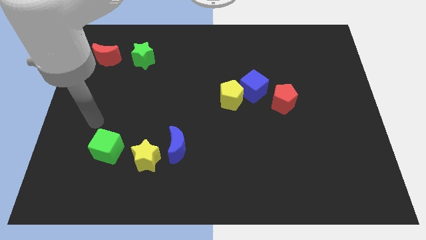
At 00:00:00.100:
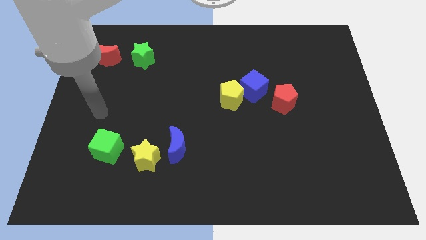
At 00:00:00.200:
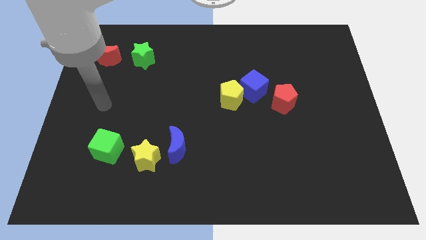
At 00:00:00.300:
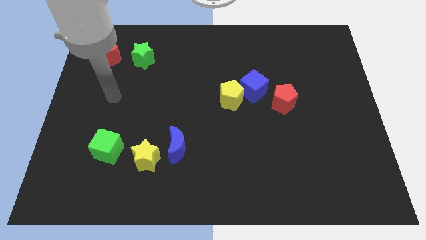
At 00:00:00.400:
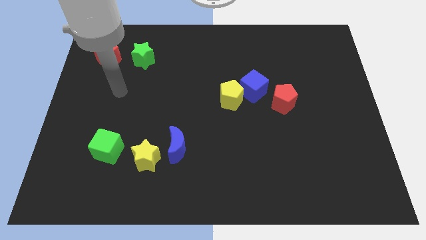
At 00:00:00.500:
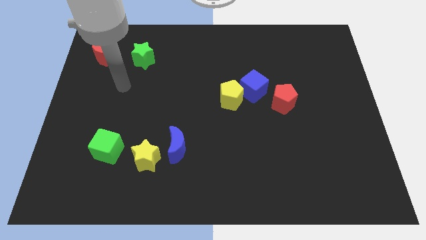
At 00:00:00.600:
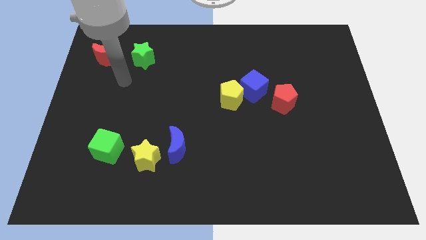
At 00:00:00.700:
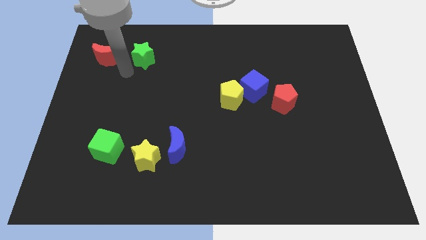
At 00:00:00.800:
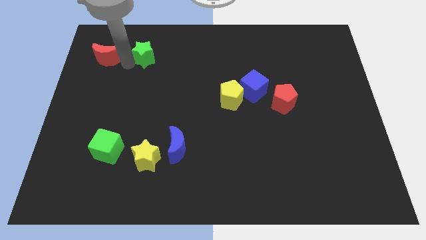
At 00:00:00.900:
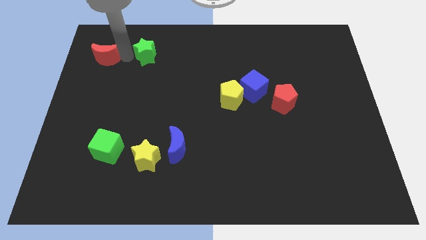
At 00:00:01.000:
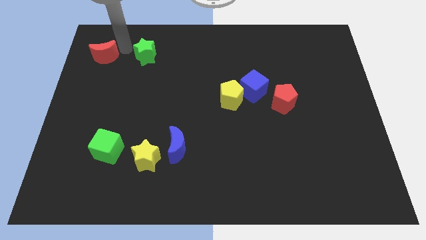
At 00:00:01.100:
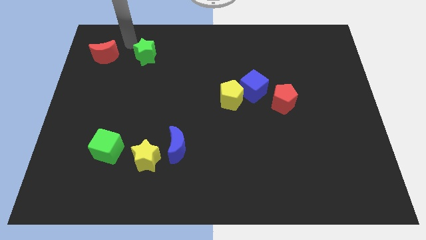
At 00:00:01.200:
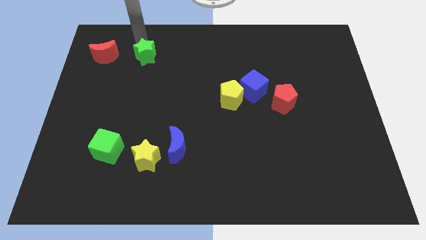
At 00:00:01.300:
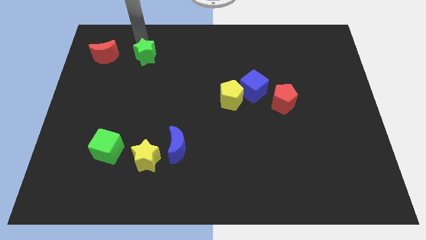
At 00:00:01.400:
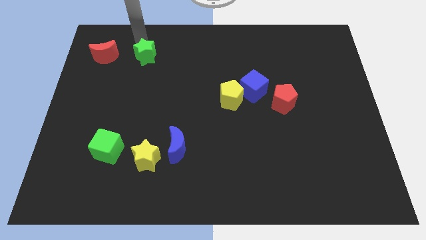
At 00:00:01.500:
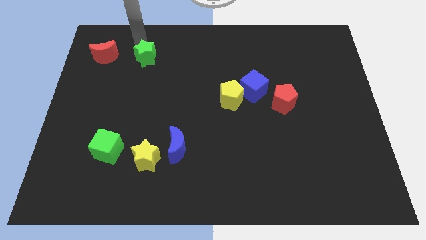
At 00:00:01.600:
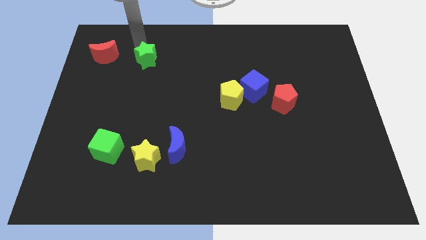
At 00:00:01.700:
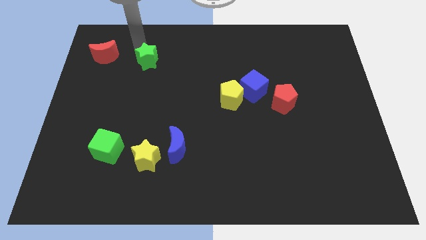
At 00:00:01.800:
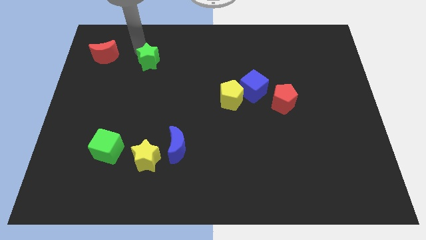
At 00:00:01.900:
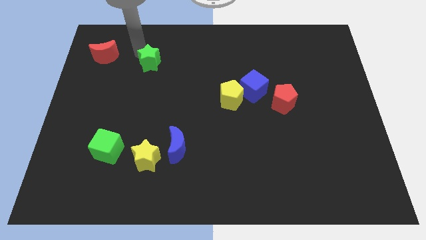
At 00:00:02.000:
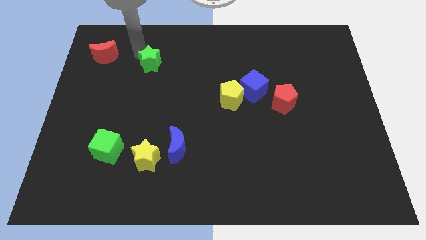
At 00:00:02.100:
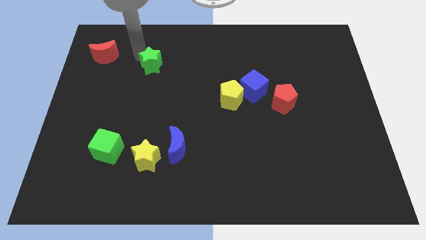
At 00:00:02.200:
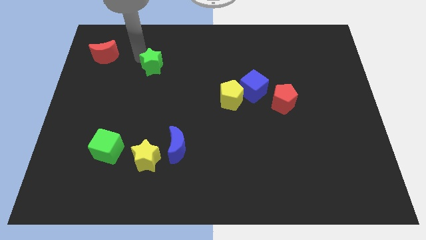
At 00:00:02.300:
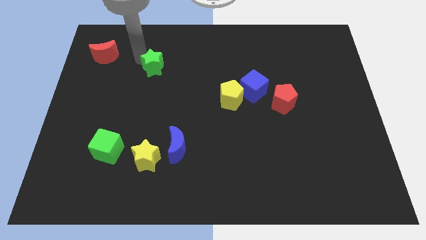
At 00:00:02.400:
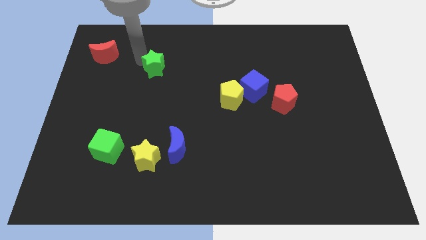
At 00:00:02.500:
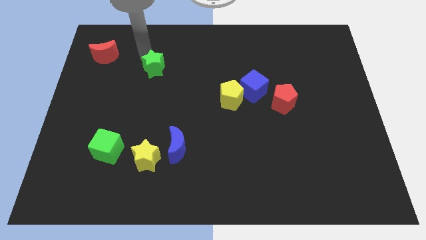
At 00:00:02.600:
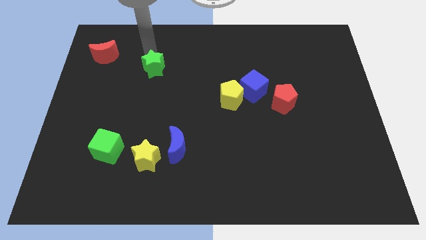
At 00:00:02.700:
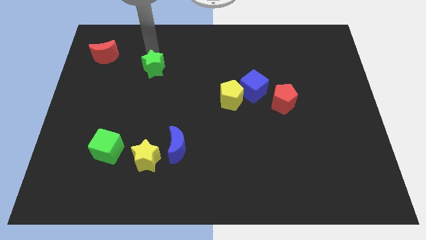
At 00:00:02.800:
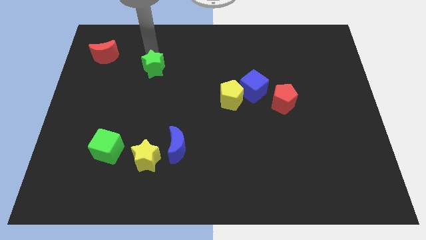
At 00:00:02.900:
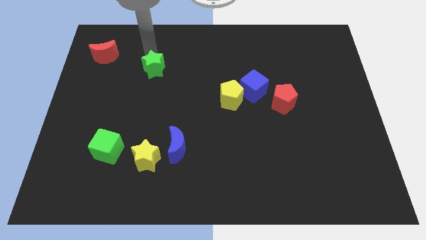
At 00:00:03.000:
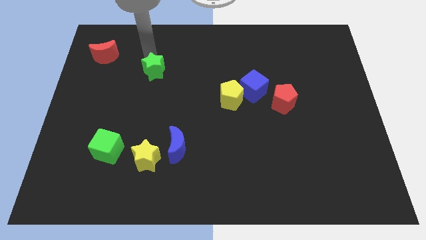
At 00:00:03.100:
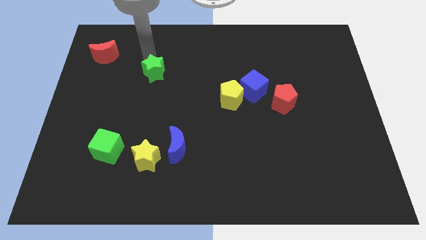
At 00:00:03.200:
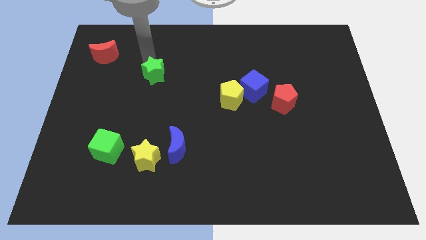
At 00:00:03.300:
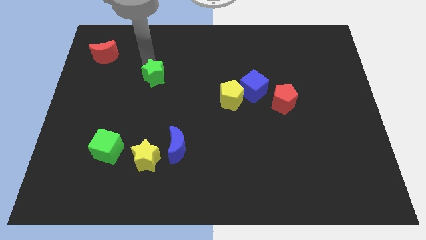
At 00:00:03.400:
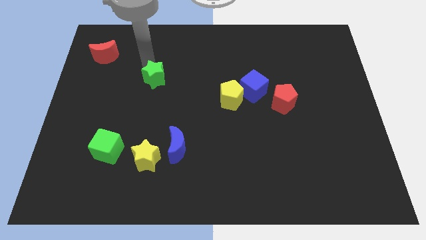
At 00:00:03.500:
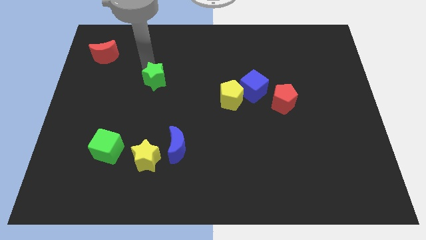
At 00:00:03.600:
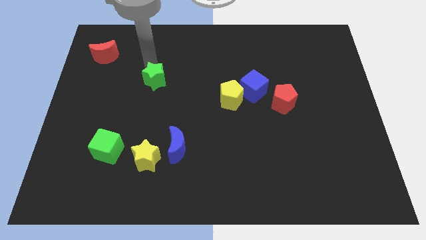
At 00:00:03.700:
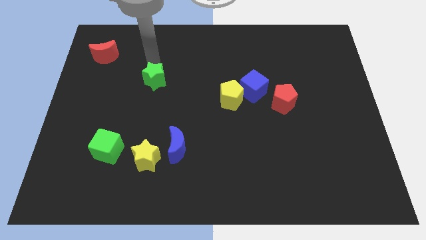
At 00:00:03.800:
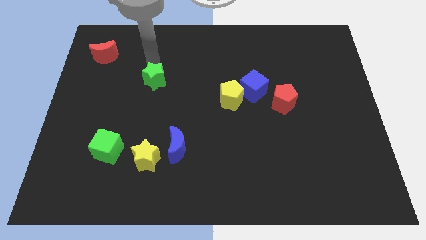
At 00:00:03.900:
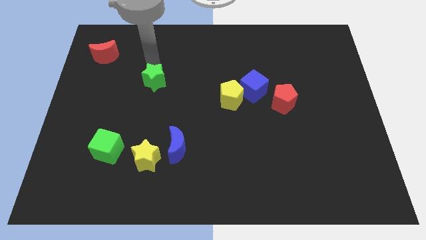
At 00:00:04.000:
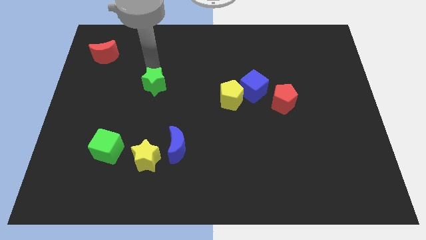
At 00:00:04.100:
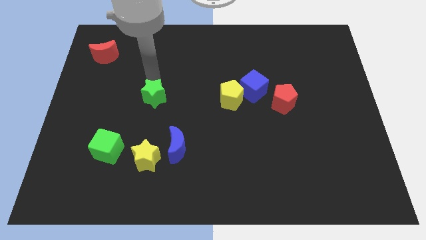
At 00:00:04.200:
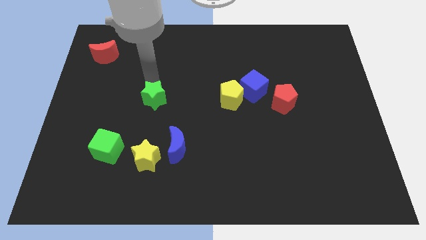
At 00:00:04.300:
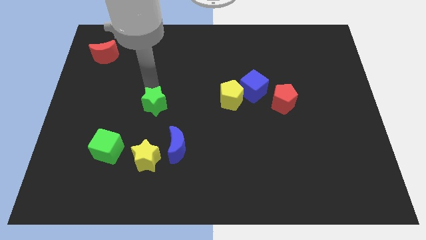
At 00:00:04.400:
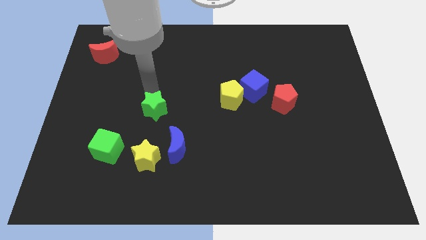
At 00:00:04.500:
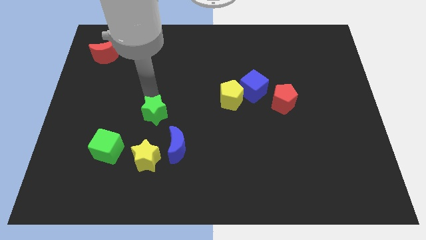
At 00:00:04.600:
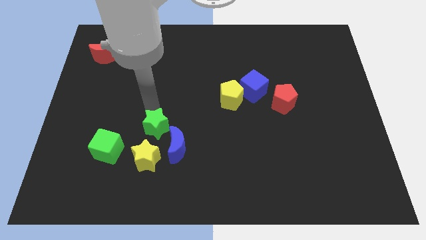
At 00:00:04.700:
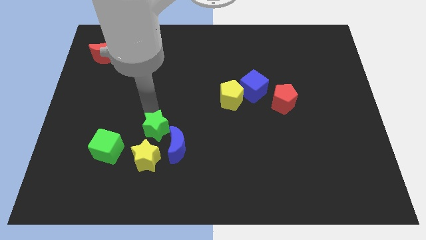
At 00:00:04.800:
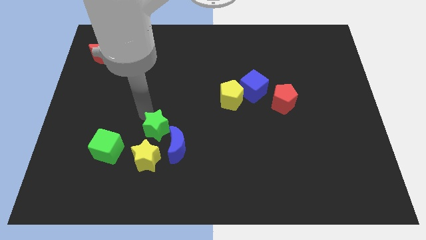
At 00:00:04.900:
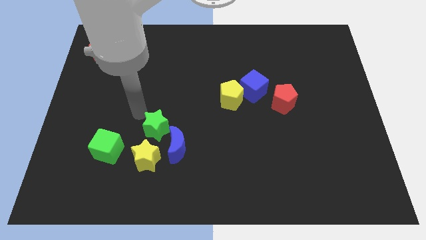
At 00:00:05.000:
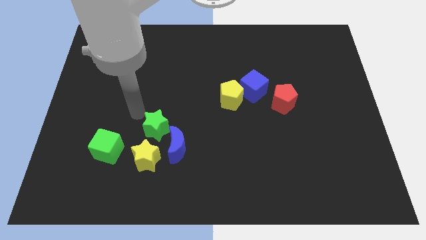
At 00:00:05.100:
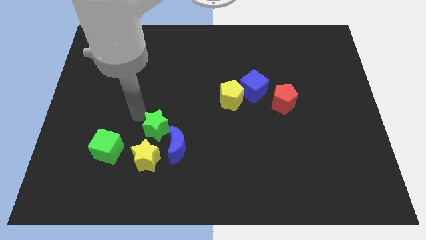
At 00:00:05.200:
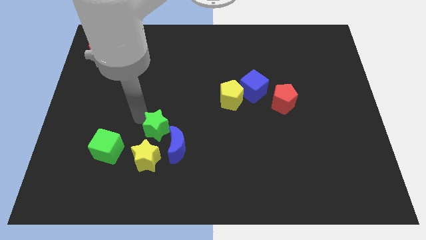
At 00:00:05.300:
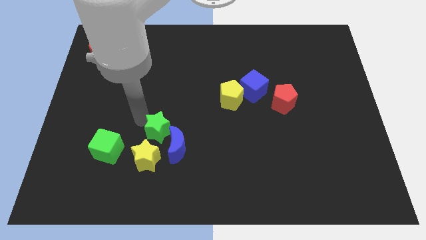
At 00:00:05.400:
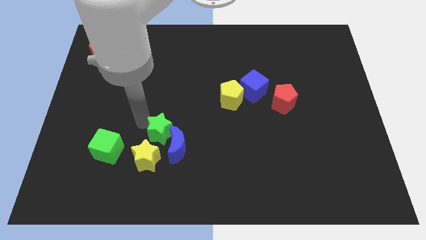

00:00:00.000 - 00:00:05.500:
push the green star towards the blue moon

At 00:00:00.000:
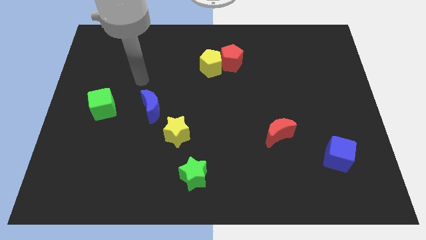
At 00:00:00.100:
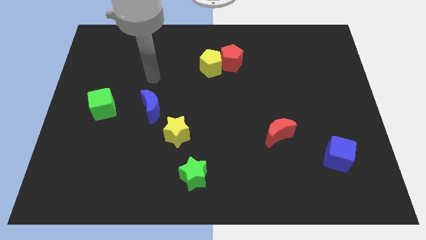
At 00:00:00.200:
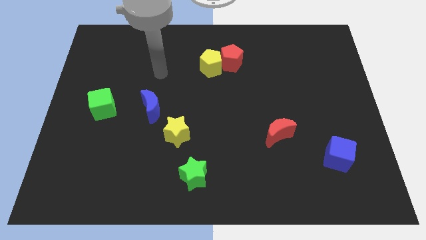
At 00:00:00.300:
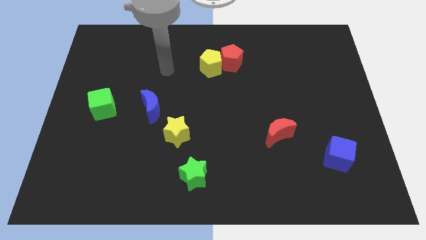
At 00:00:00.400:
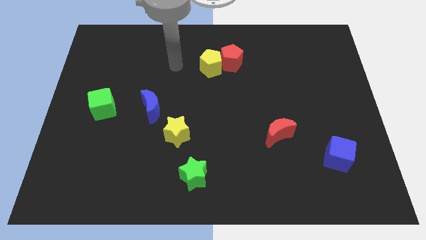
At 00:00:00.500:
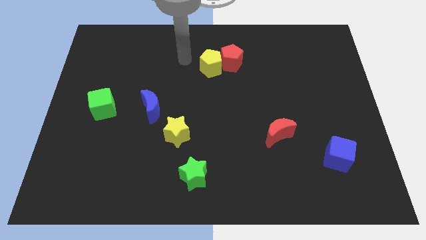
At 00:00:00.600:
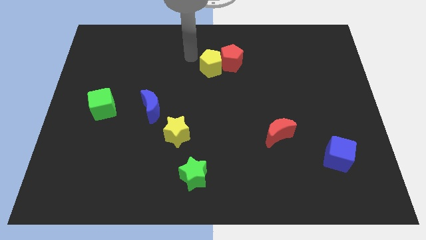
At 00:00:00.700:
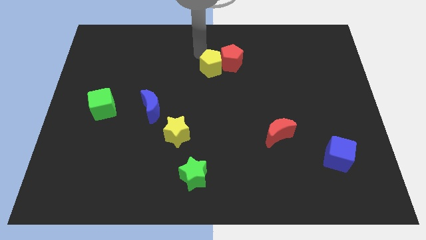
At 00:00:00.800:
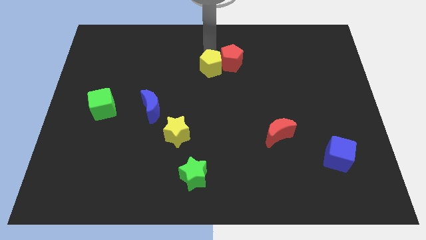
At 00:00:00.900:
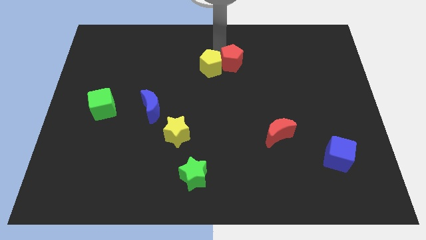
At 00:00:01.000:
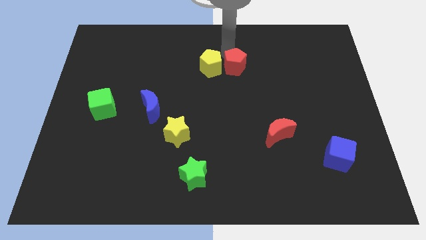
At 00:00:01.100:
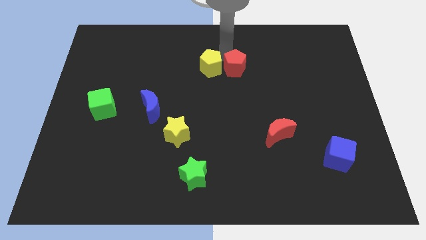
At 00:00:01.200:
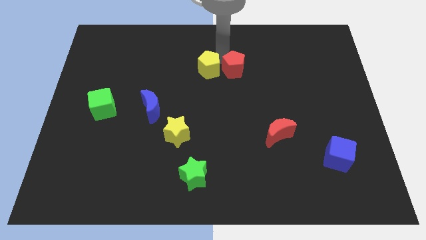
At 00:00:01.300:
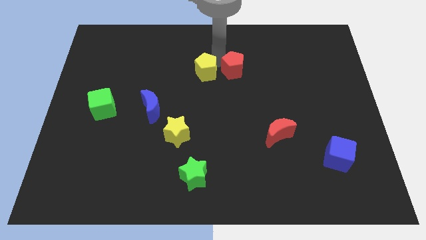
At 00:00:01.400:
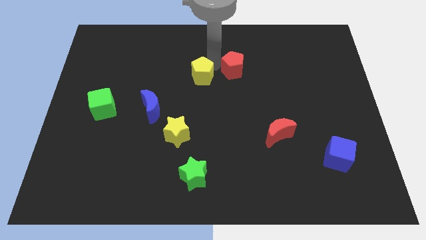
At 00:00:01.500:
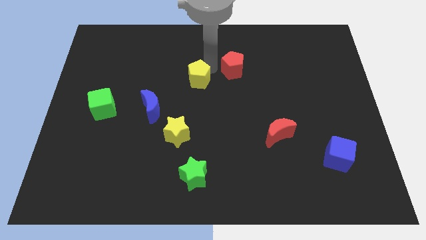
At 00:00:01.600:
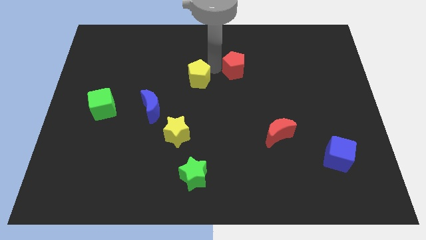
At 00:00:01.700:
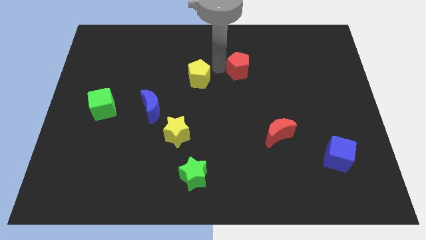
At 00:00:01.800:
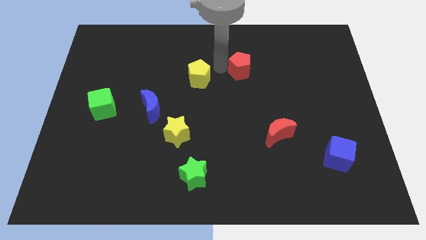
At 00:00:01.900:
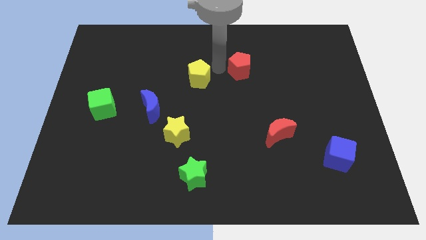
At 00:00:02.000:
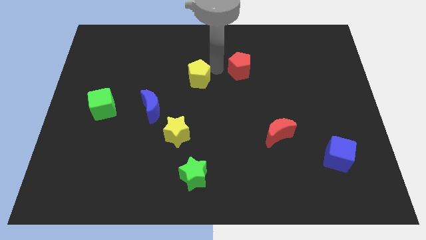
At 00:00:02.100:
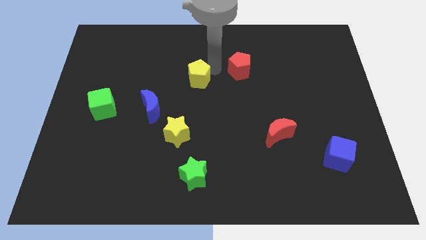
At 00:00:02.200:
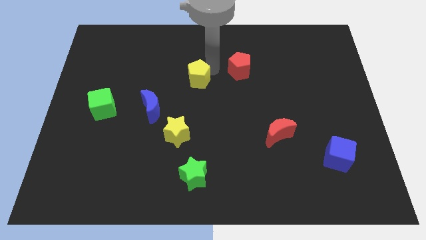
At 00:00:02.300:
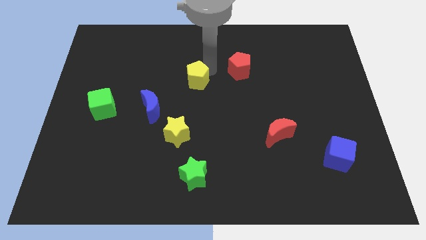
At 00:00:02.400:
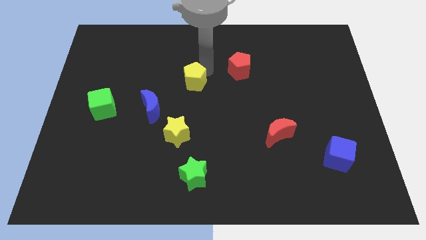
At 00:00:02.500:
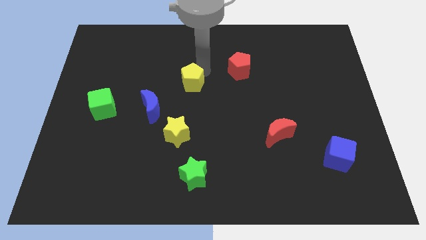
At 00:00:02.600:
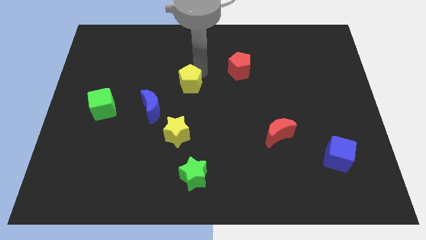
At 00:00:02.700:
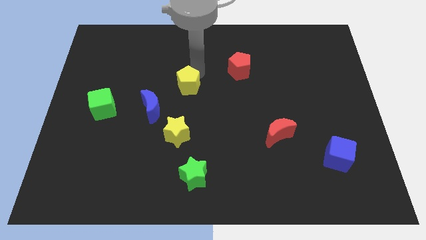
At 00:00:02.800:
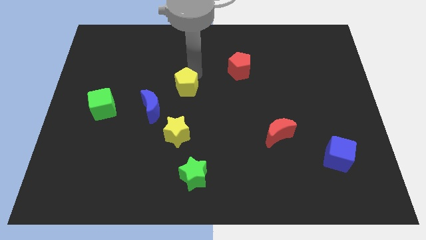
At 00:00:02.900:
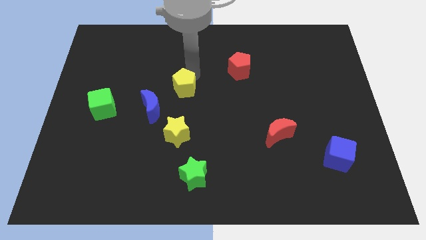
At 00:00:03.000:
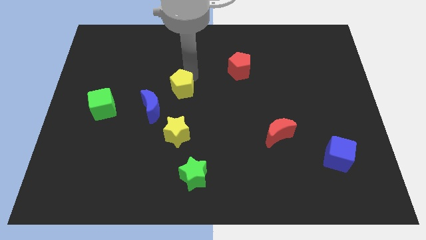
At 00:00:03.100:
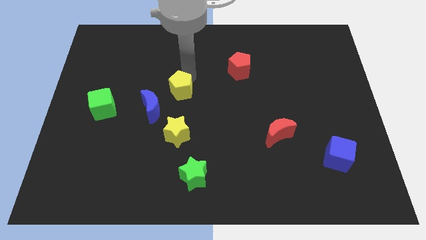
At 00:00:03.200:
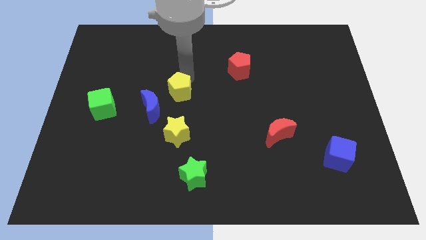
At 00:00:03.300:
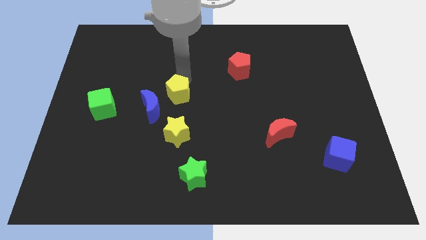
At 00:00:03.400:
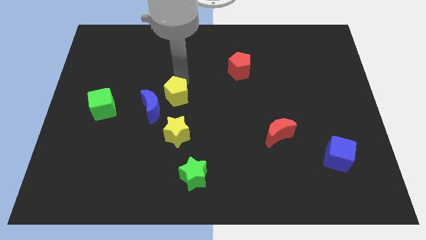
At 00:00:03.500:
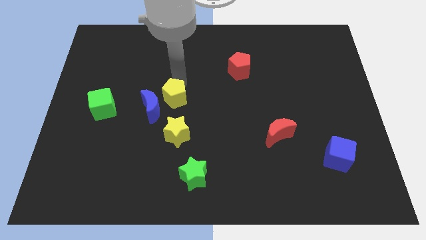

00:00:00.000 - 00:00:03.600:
slide the yellow pentagon close to the blue moon
